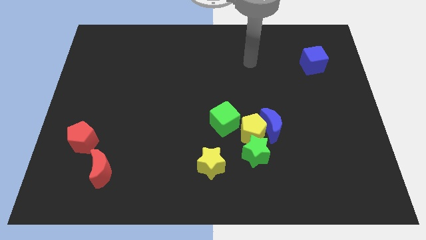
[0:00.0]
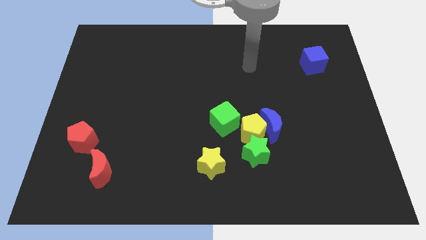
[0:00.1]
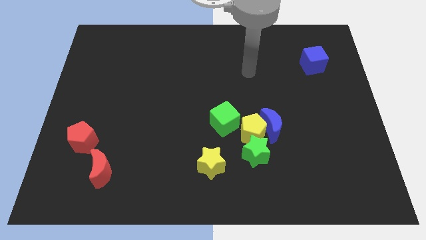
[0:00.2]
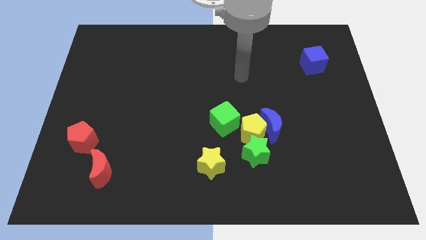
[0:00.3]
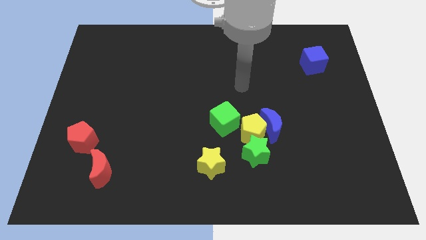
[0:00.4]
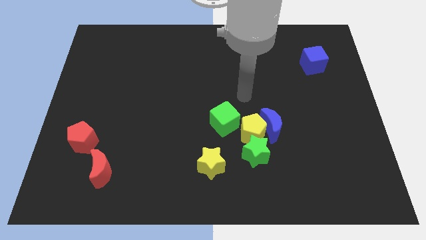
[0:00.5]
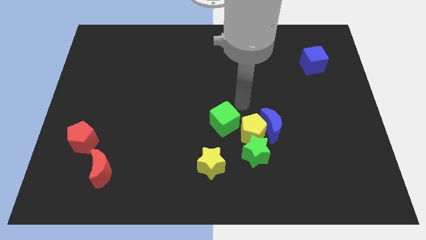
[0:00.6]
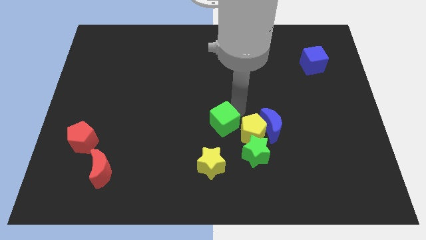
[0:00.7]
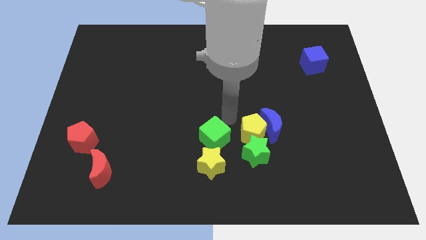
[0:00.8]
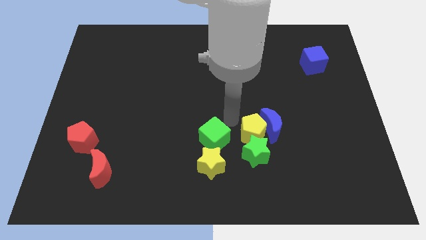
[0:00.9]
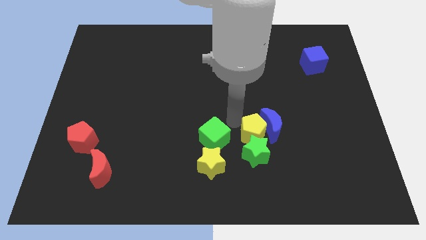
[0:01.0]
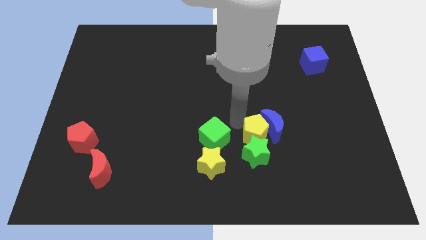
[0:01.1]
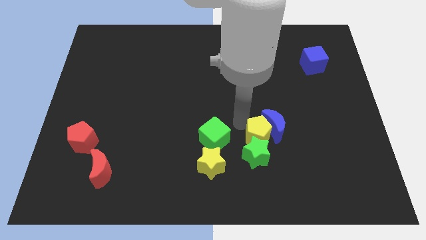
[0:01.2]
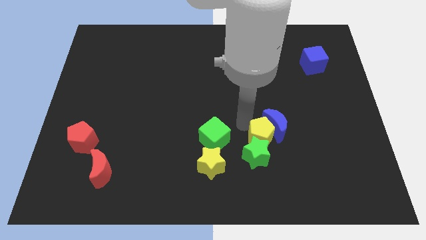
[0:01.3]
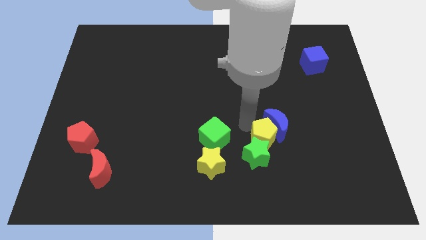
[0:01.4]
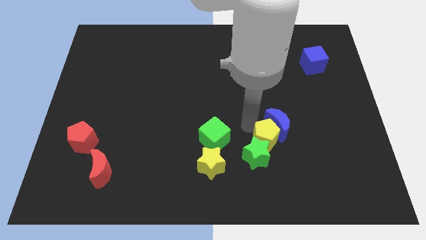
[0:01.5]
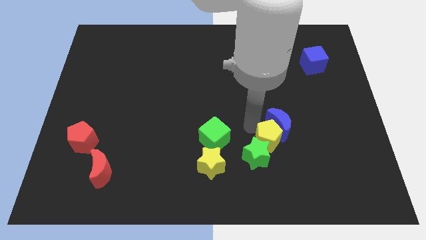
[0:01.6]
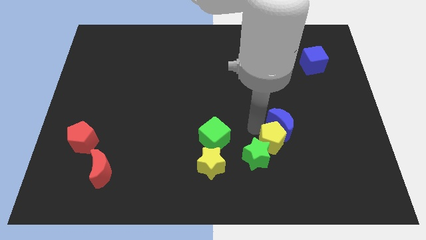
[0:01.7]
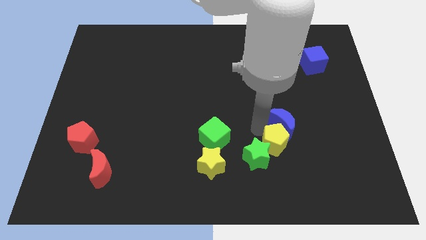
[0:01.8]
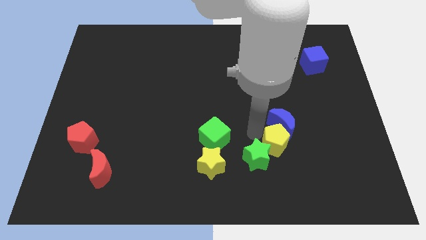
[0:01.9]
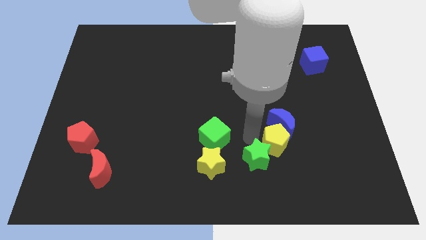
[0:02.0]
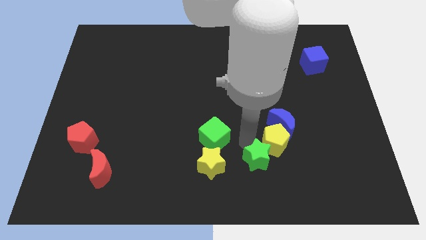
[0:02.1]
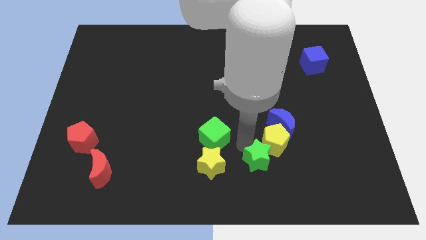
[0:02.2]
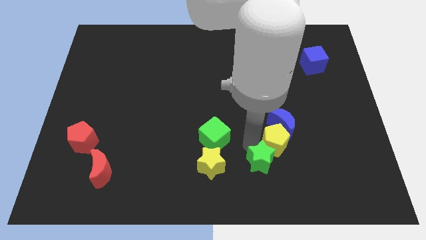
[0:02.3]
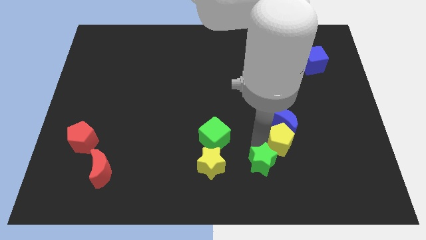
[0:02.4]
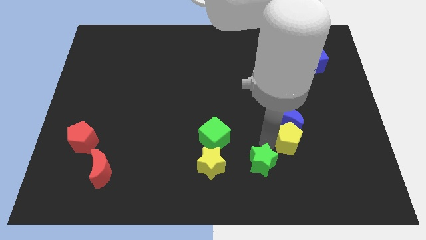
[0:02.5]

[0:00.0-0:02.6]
move the yellow pentagon a little right

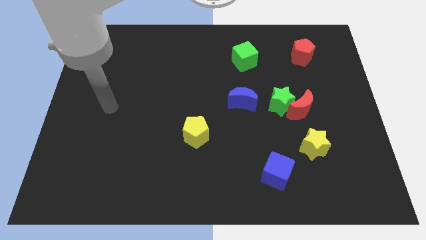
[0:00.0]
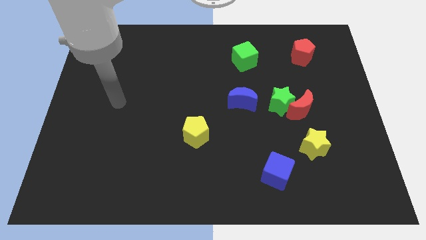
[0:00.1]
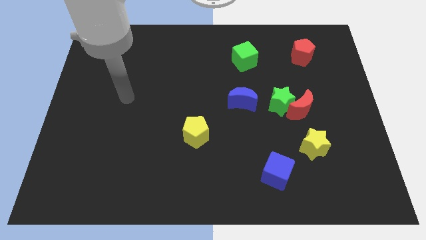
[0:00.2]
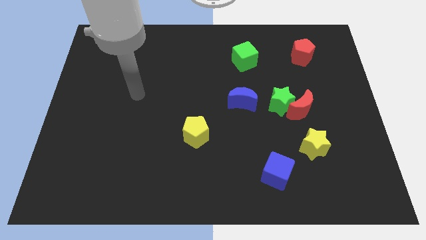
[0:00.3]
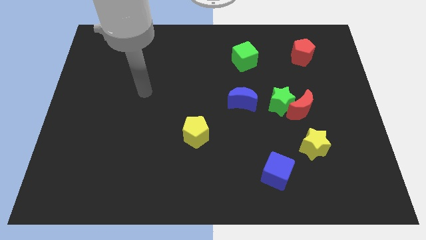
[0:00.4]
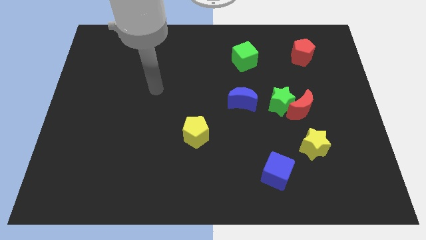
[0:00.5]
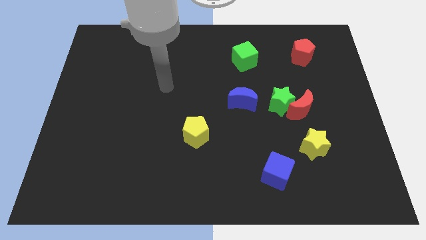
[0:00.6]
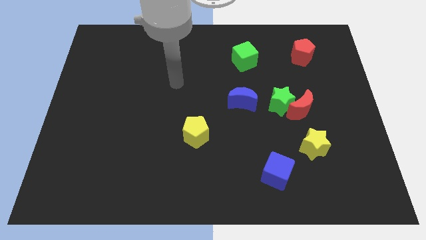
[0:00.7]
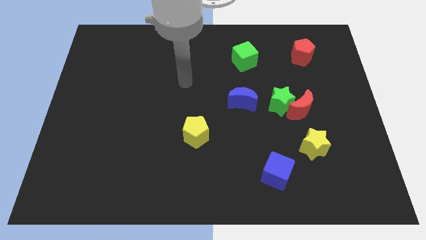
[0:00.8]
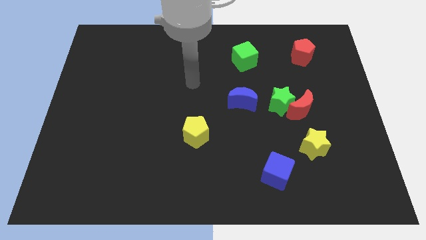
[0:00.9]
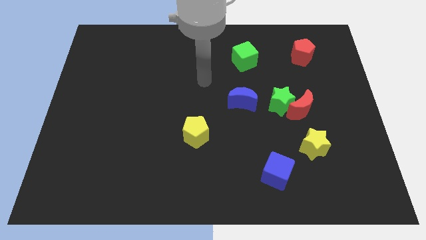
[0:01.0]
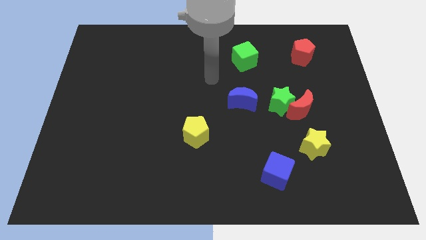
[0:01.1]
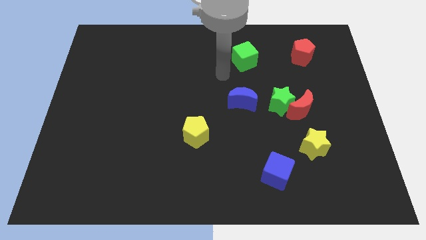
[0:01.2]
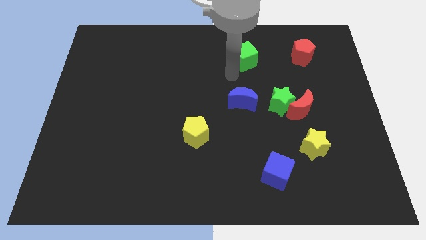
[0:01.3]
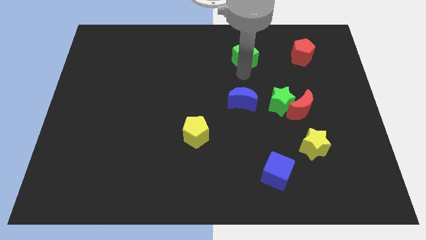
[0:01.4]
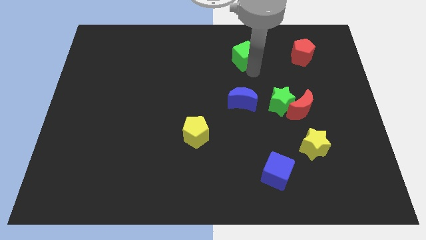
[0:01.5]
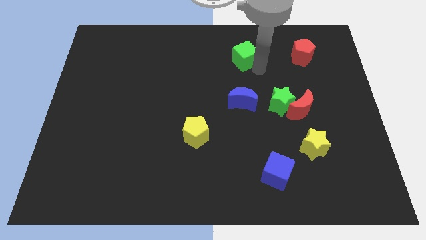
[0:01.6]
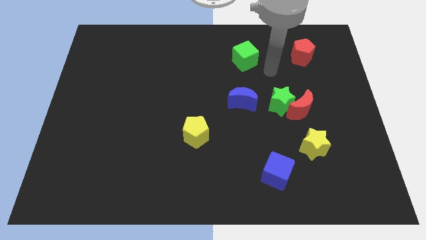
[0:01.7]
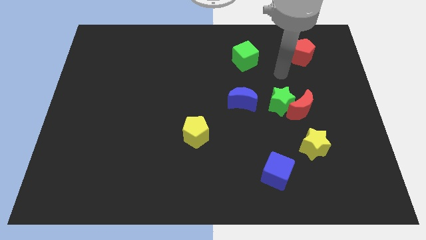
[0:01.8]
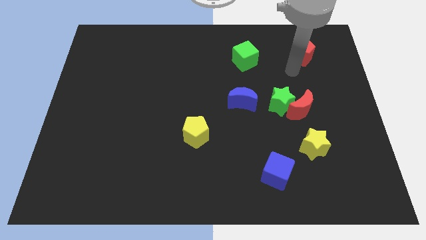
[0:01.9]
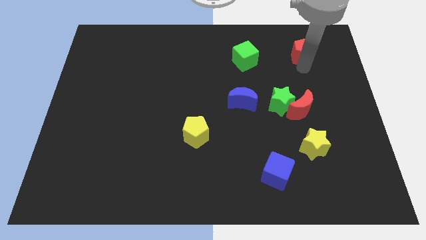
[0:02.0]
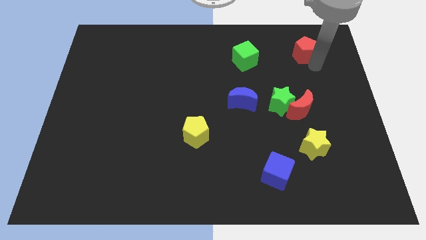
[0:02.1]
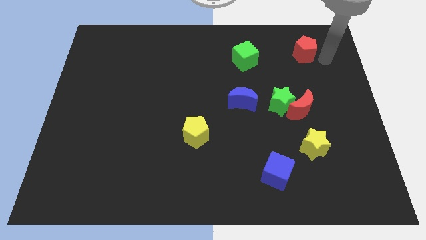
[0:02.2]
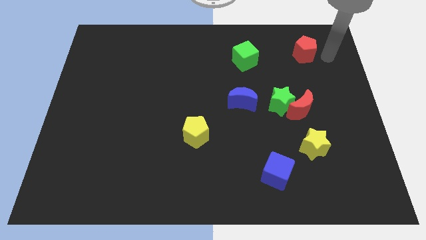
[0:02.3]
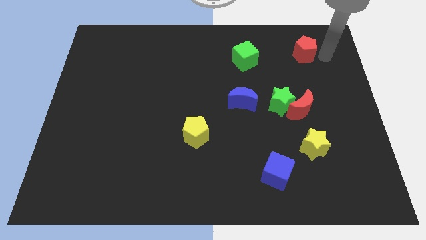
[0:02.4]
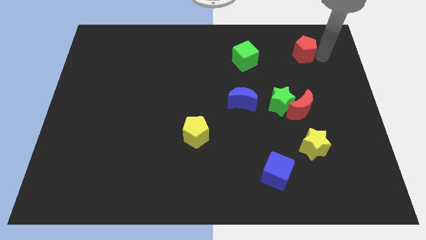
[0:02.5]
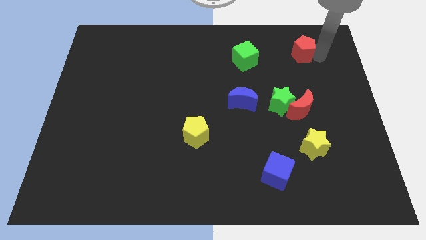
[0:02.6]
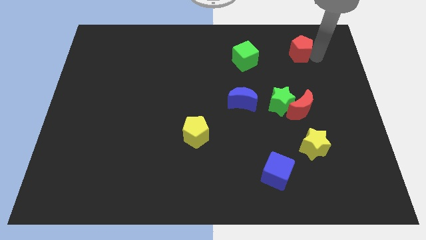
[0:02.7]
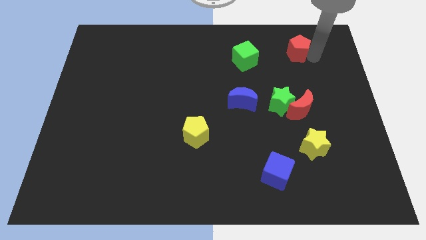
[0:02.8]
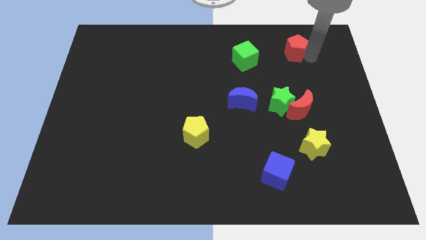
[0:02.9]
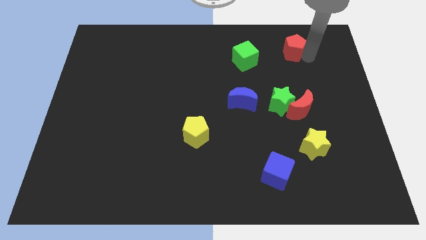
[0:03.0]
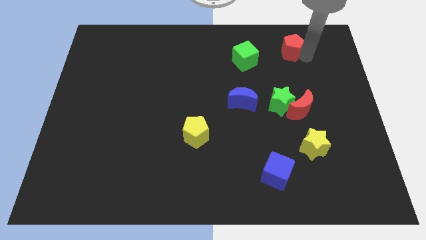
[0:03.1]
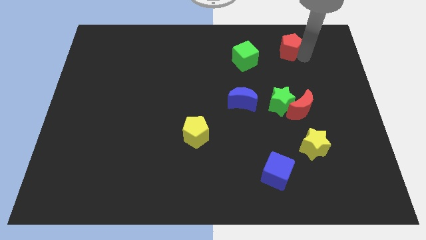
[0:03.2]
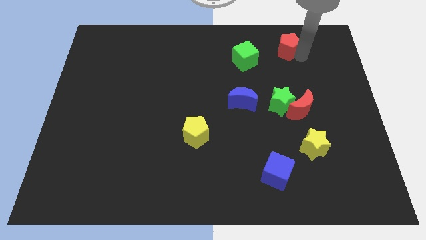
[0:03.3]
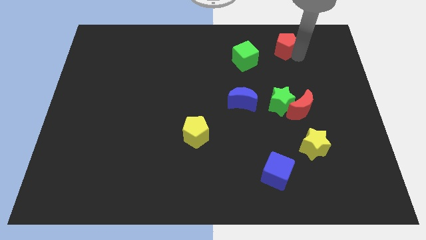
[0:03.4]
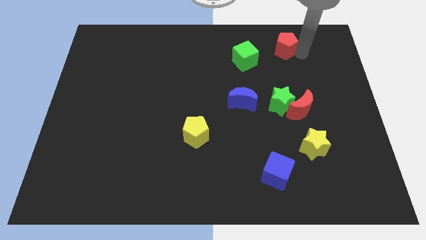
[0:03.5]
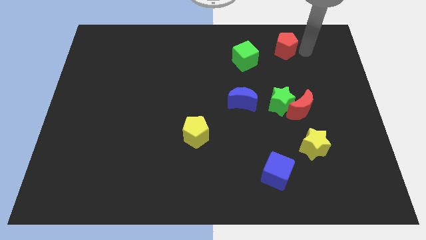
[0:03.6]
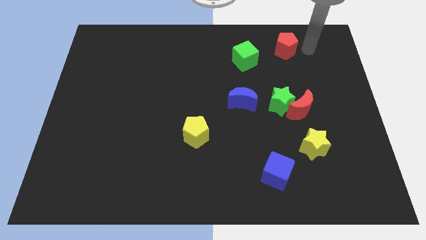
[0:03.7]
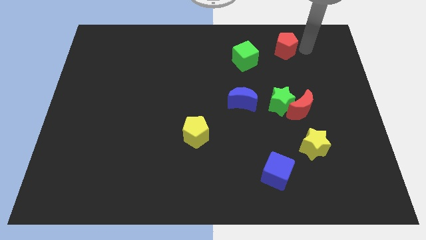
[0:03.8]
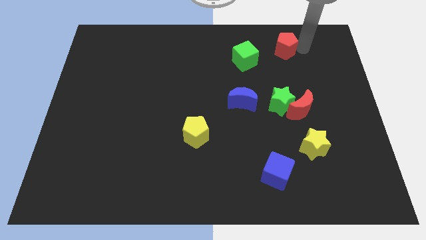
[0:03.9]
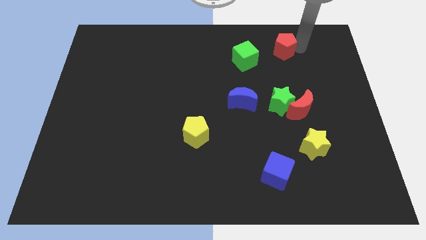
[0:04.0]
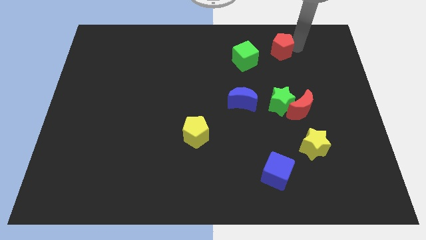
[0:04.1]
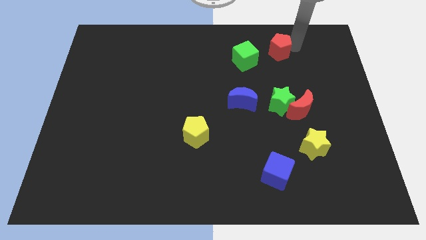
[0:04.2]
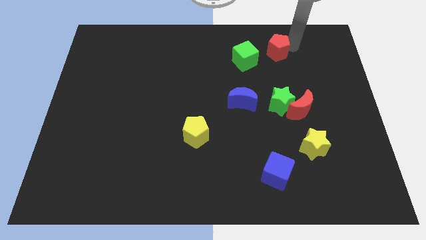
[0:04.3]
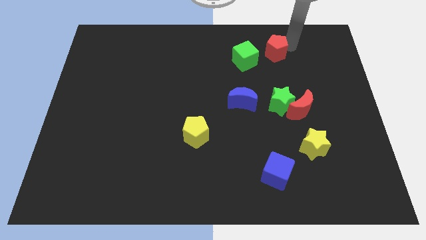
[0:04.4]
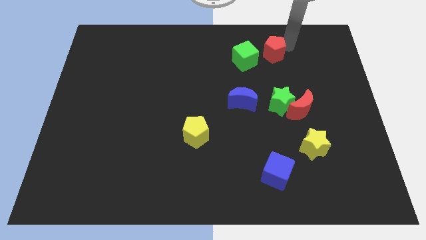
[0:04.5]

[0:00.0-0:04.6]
slightly slide the red pentagon to the left

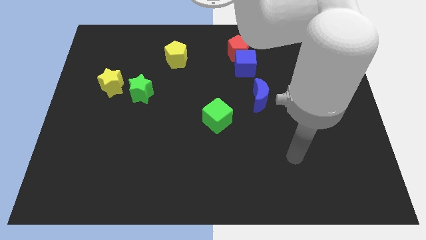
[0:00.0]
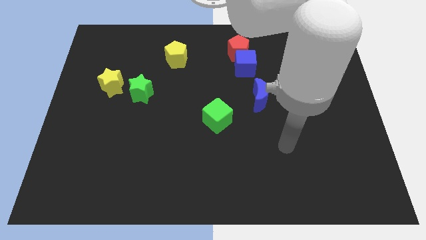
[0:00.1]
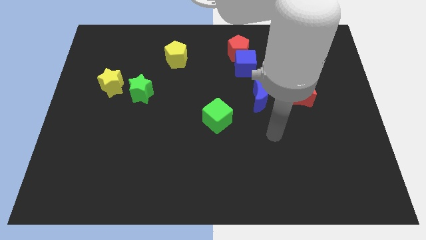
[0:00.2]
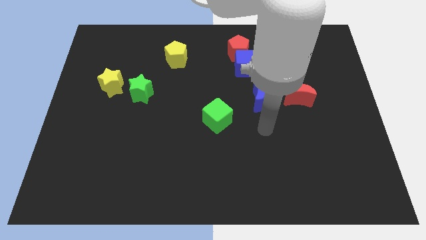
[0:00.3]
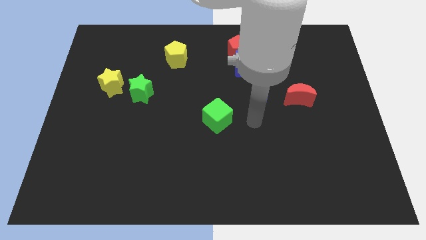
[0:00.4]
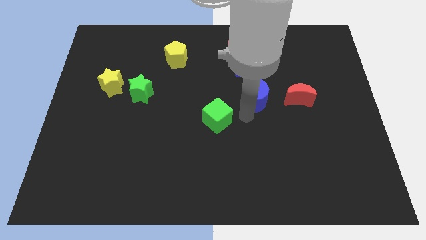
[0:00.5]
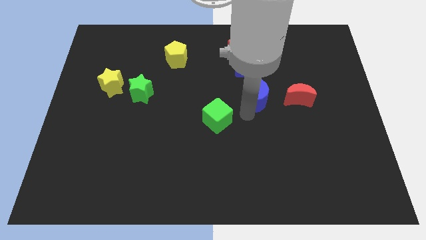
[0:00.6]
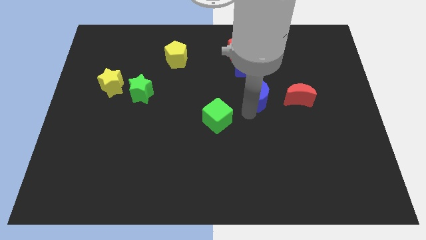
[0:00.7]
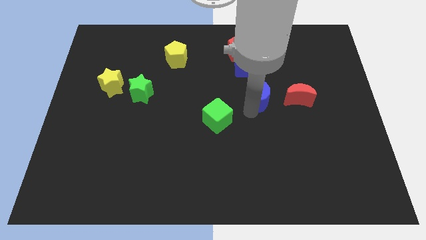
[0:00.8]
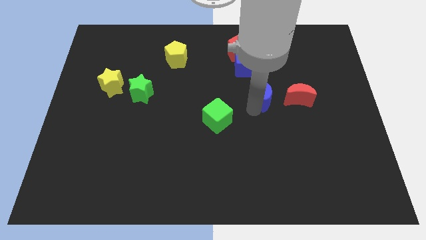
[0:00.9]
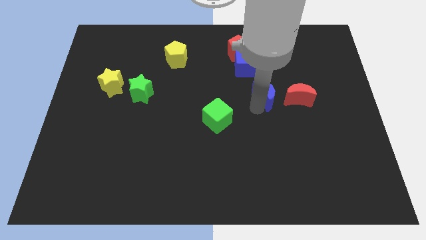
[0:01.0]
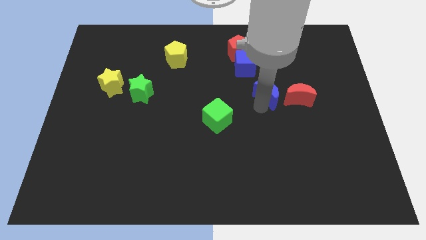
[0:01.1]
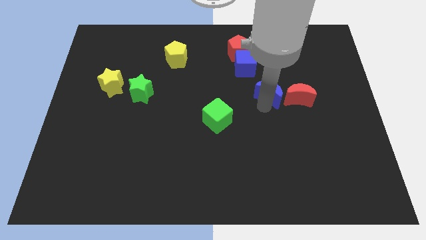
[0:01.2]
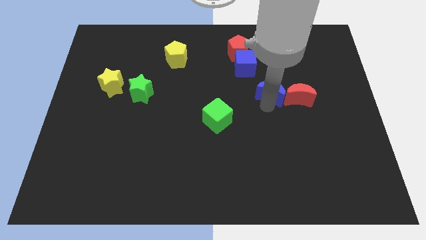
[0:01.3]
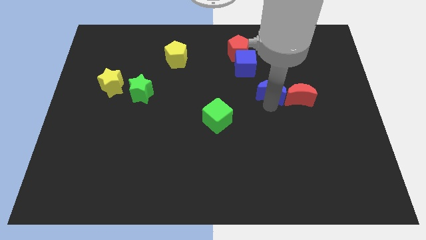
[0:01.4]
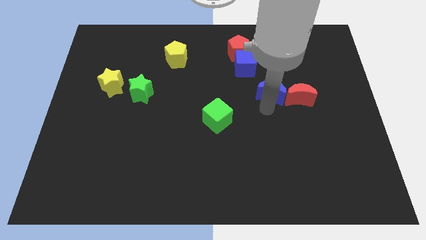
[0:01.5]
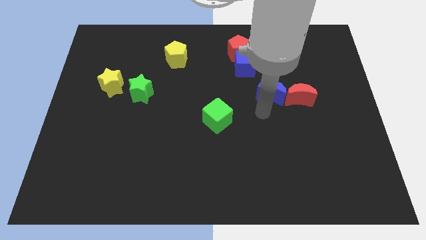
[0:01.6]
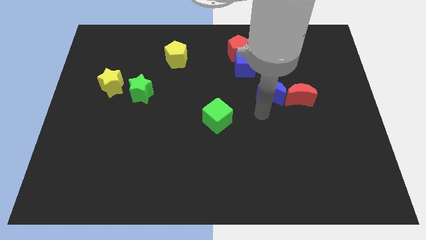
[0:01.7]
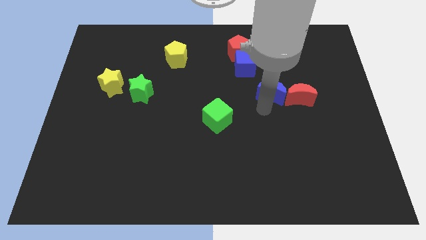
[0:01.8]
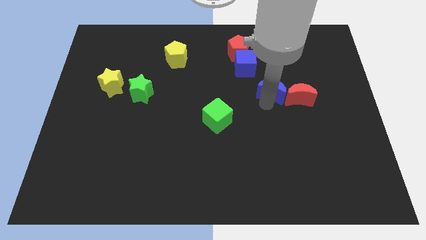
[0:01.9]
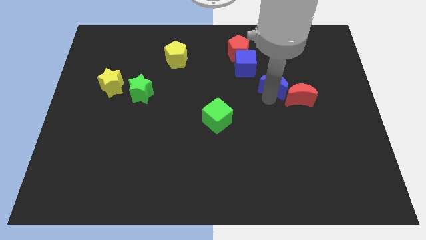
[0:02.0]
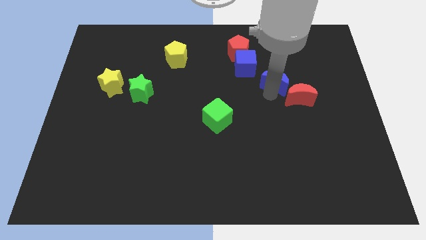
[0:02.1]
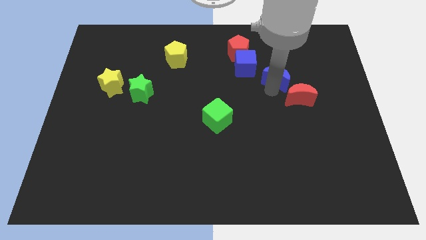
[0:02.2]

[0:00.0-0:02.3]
slightly slide the blue moon upwards and then right
